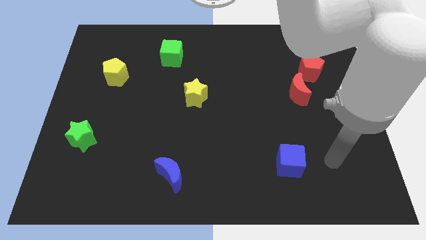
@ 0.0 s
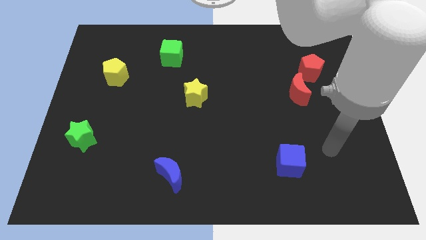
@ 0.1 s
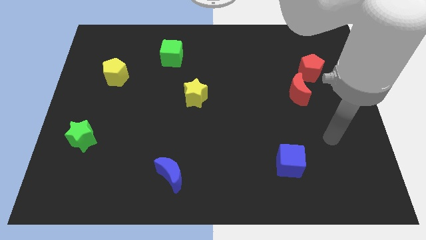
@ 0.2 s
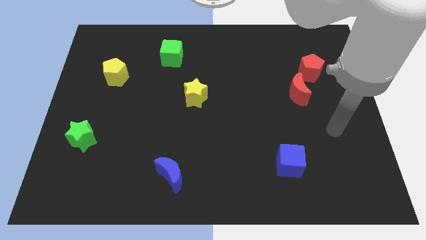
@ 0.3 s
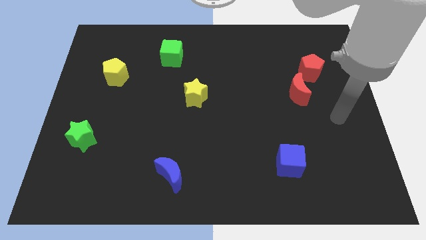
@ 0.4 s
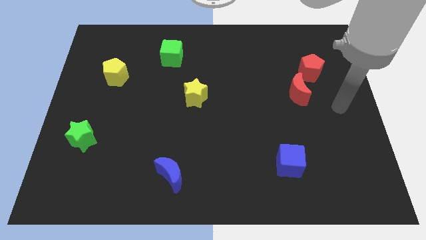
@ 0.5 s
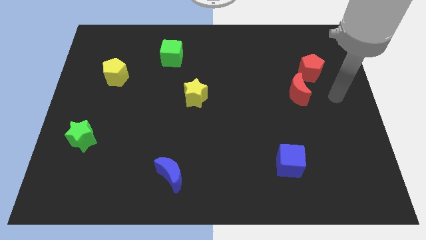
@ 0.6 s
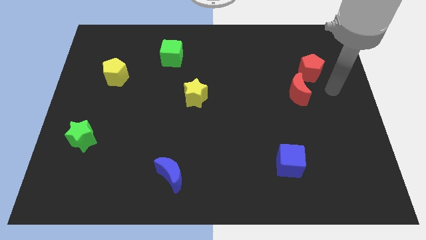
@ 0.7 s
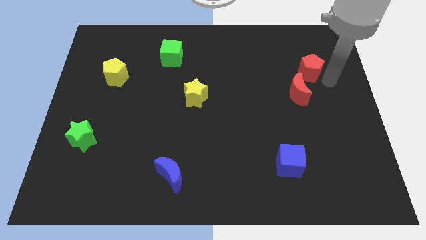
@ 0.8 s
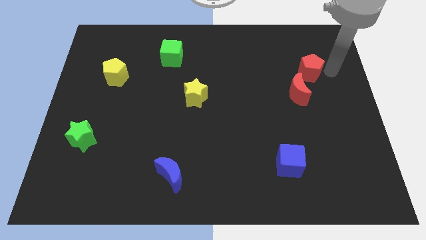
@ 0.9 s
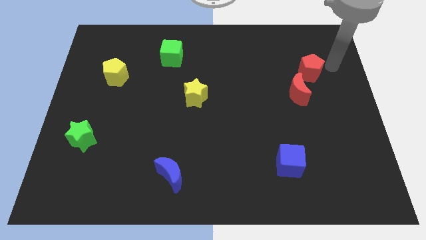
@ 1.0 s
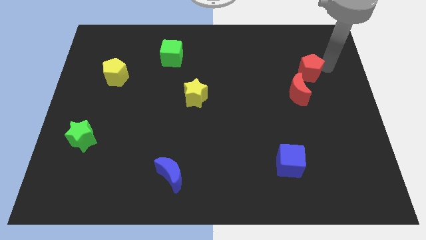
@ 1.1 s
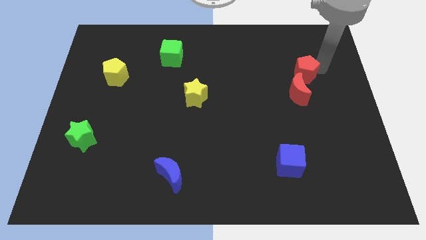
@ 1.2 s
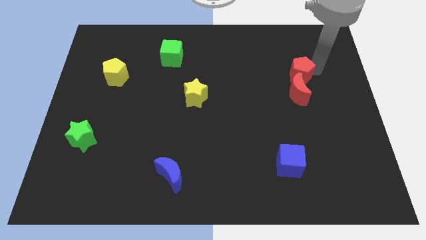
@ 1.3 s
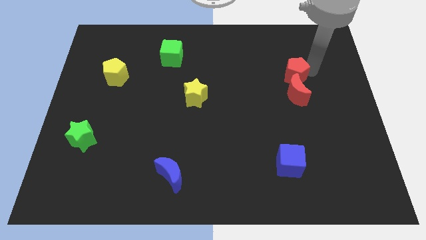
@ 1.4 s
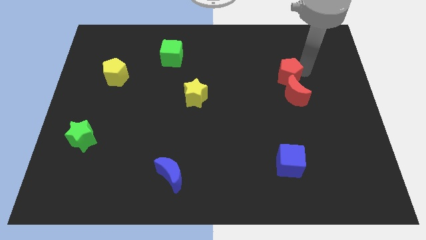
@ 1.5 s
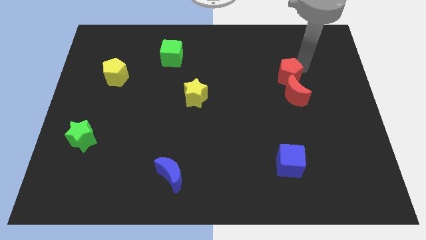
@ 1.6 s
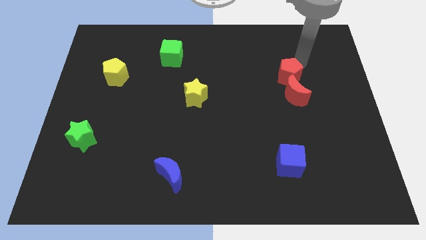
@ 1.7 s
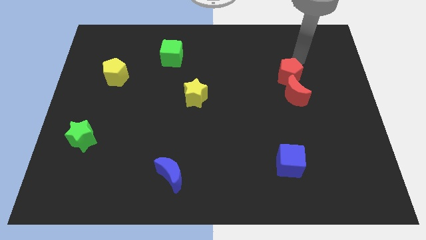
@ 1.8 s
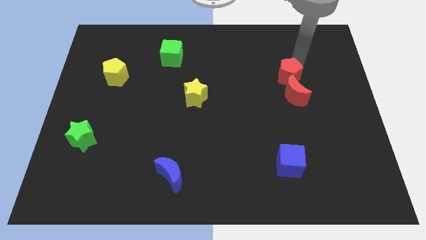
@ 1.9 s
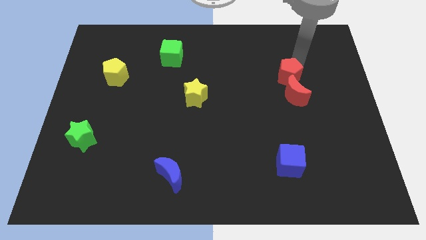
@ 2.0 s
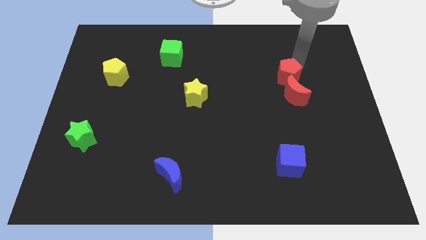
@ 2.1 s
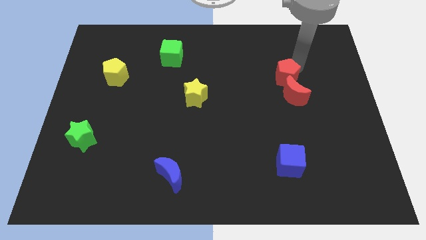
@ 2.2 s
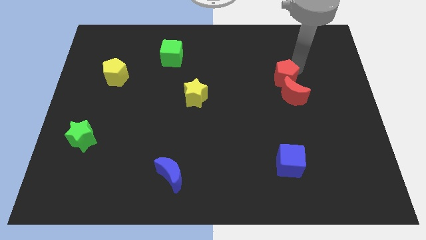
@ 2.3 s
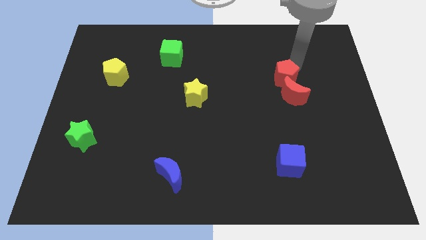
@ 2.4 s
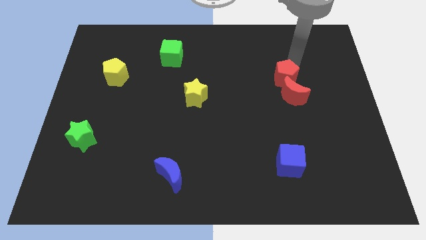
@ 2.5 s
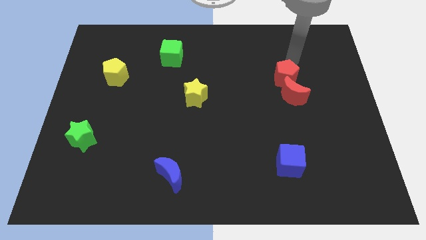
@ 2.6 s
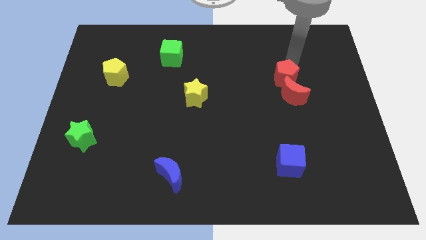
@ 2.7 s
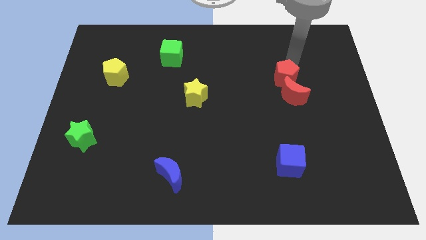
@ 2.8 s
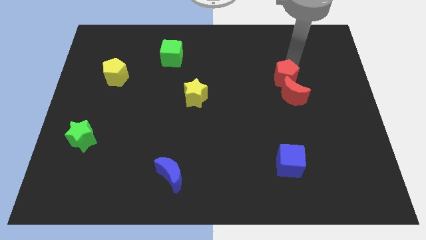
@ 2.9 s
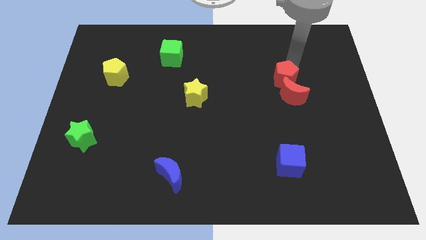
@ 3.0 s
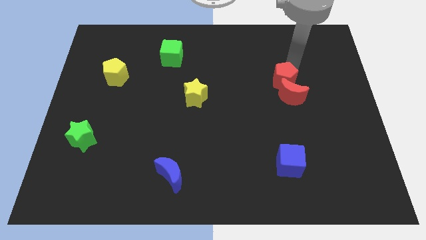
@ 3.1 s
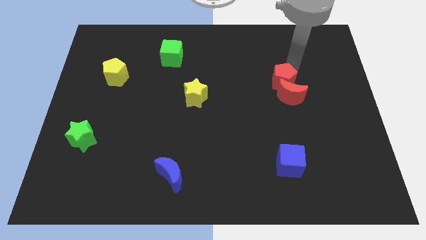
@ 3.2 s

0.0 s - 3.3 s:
slide the red pentagon somewhat downwards and left

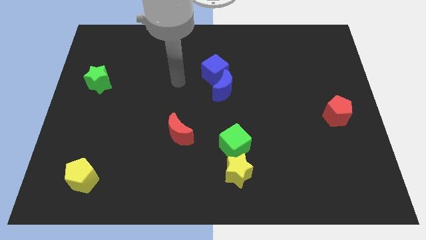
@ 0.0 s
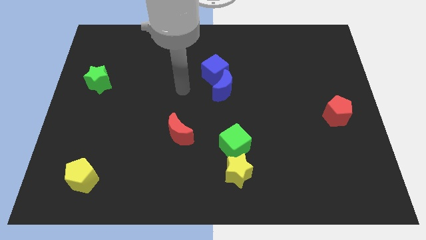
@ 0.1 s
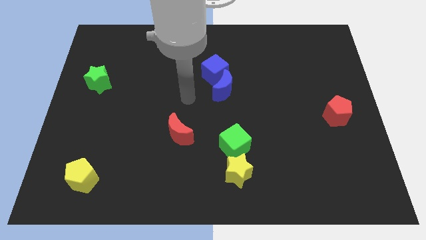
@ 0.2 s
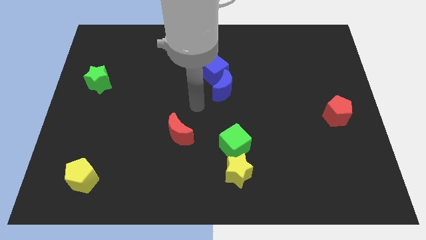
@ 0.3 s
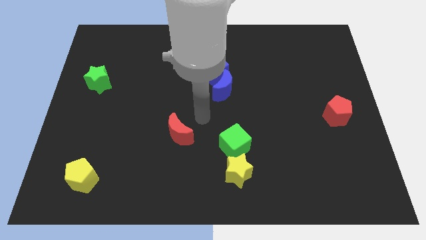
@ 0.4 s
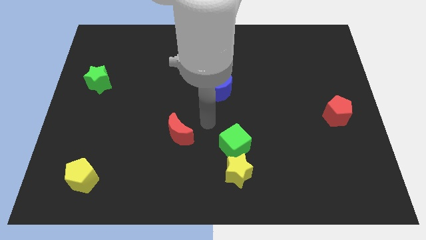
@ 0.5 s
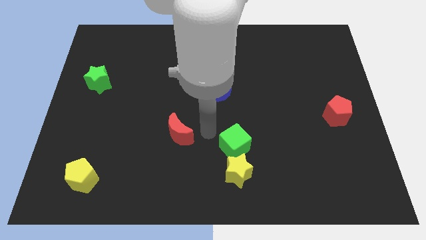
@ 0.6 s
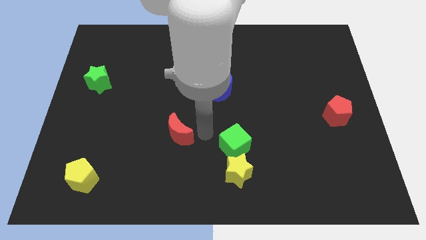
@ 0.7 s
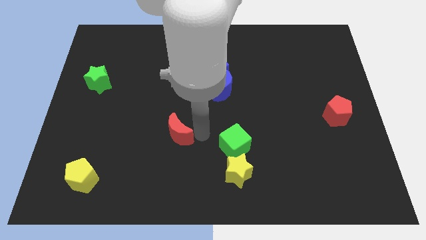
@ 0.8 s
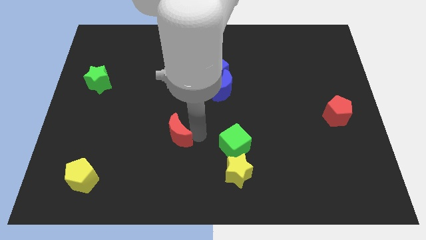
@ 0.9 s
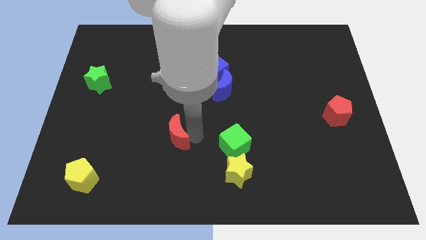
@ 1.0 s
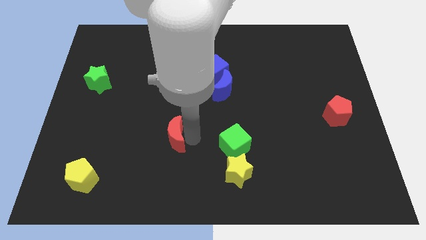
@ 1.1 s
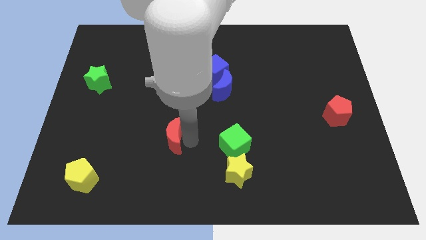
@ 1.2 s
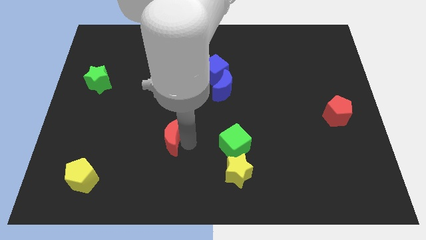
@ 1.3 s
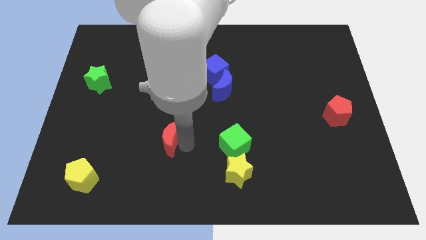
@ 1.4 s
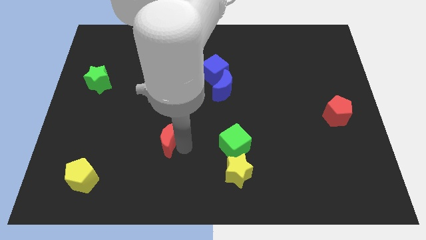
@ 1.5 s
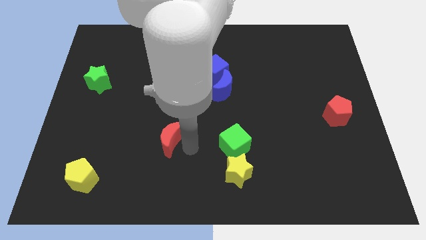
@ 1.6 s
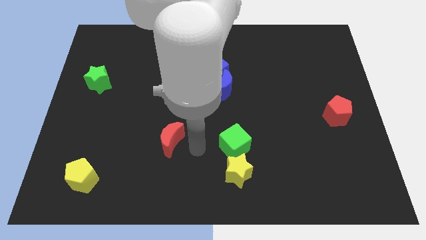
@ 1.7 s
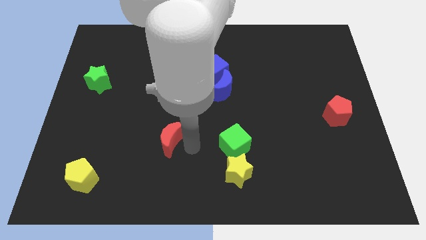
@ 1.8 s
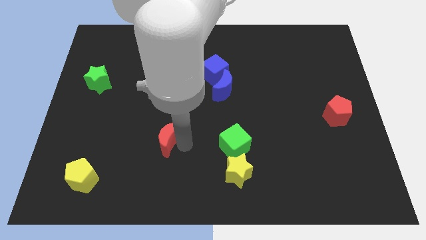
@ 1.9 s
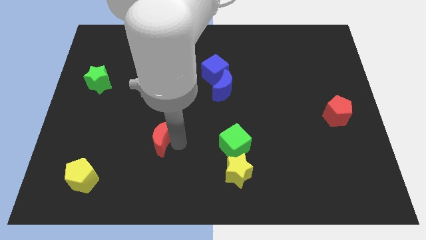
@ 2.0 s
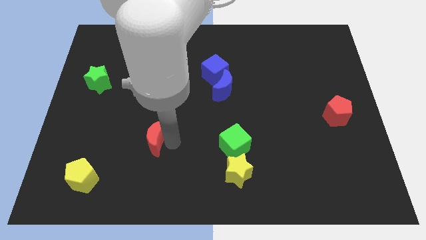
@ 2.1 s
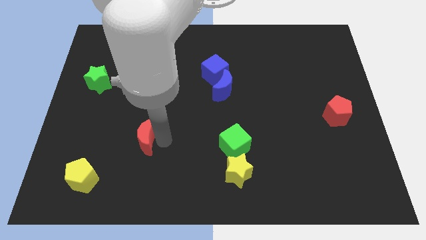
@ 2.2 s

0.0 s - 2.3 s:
slightly slide the red moon left

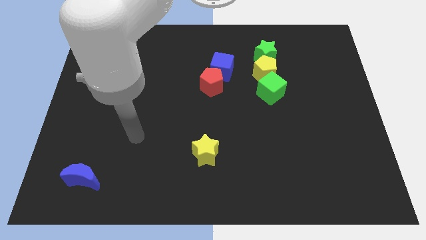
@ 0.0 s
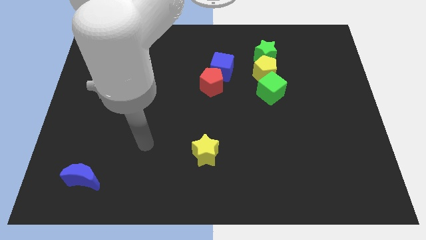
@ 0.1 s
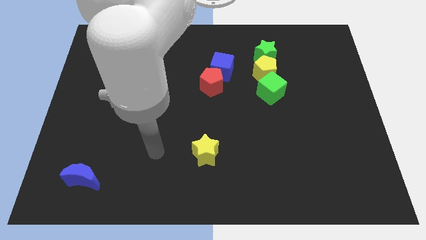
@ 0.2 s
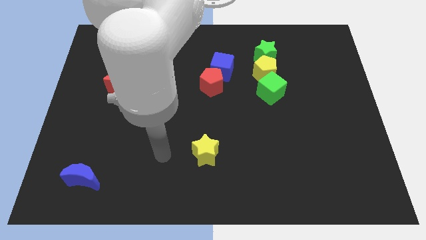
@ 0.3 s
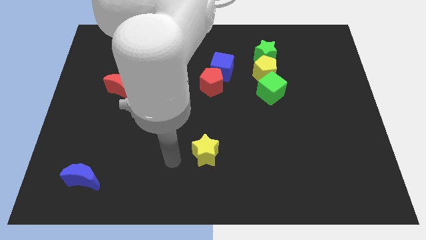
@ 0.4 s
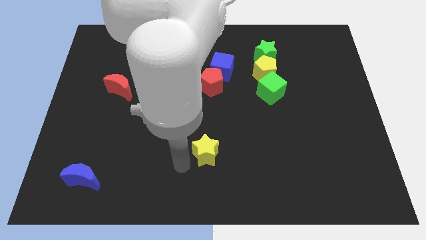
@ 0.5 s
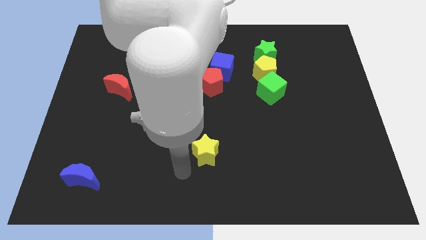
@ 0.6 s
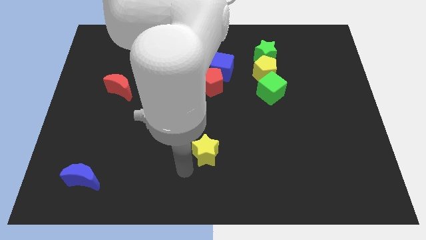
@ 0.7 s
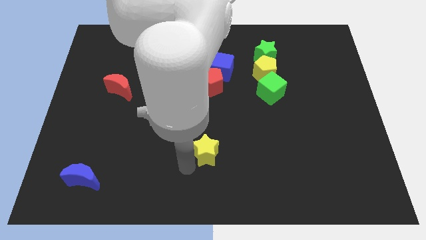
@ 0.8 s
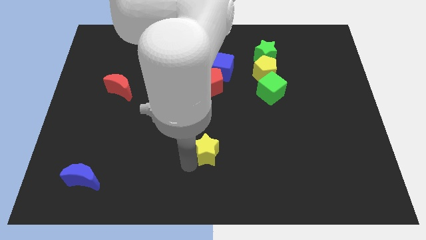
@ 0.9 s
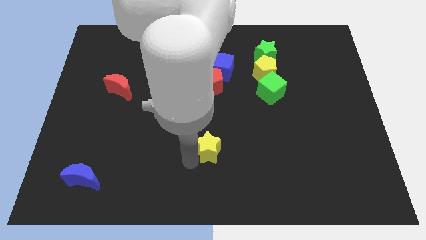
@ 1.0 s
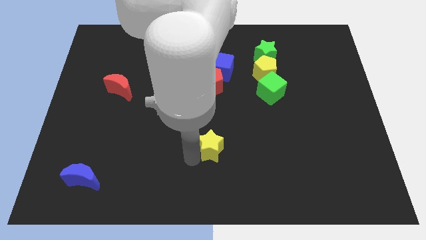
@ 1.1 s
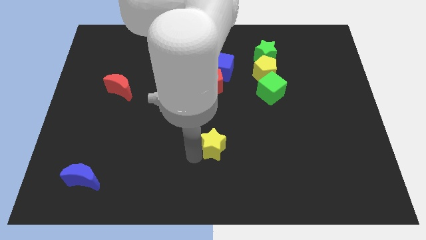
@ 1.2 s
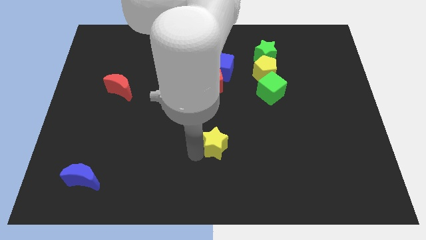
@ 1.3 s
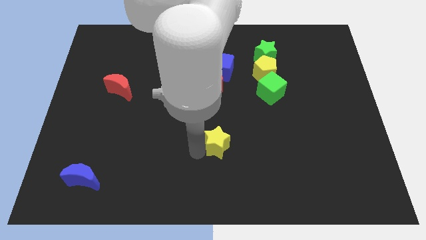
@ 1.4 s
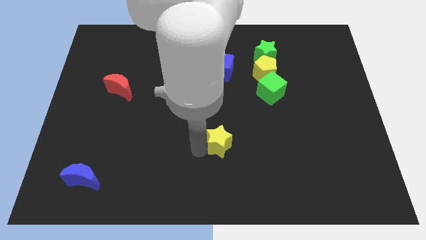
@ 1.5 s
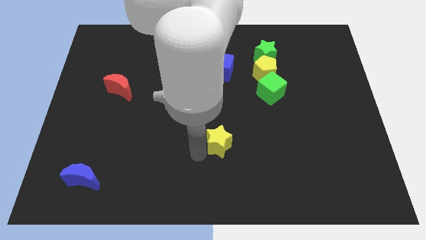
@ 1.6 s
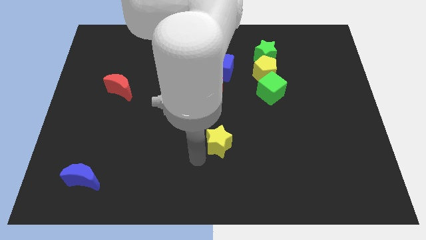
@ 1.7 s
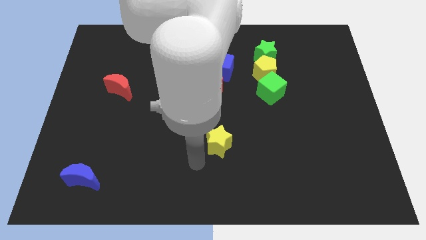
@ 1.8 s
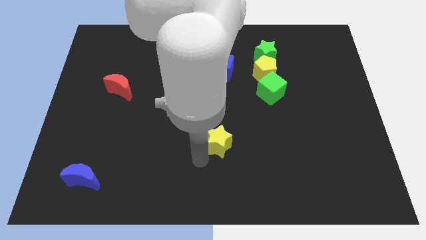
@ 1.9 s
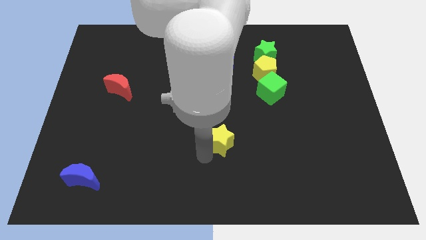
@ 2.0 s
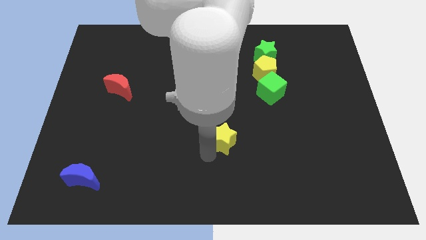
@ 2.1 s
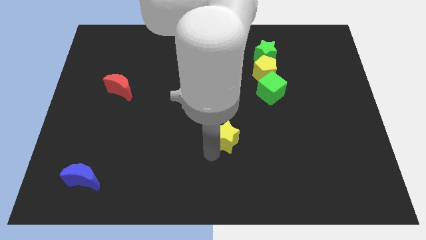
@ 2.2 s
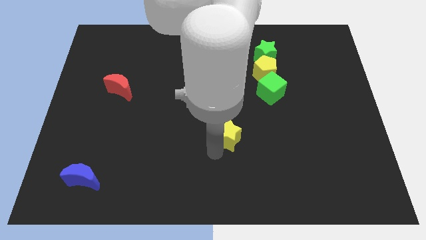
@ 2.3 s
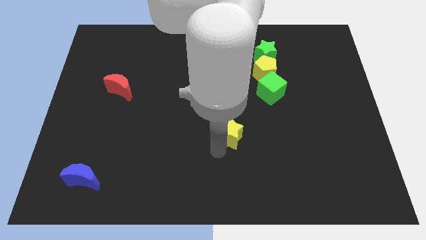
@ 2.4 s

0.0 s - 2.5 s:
push the yellow star slightly upwards and then right
